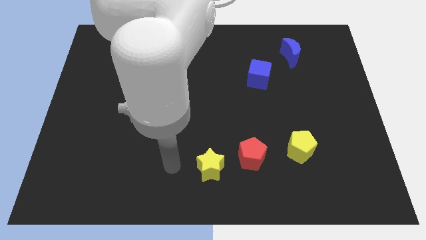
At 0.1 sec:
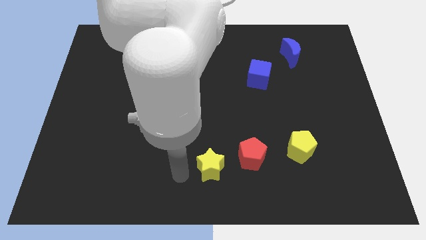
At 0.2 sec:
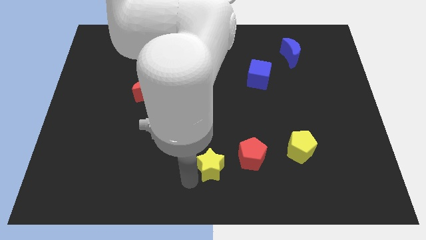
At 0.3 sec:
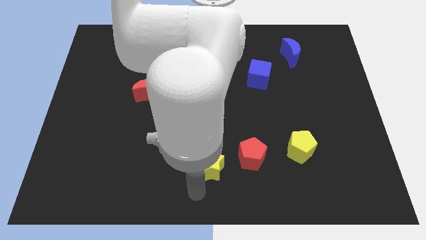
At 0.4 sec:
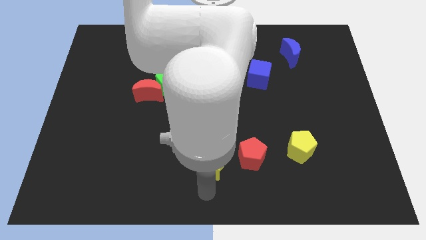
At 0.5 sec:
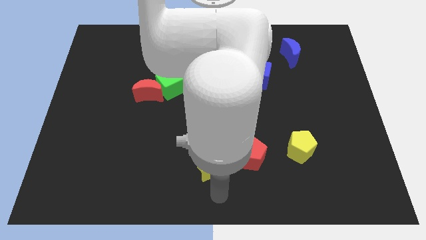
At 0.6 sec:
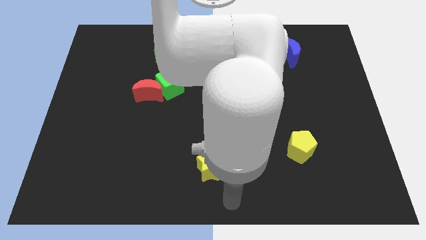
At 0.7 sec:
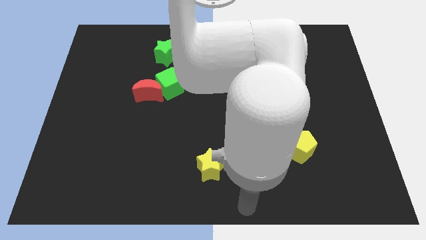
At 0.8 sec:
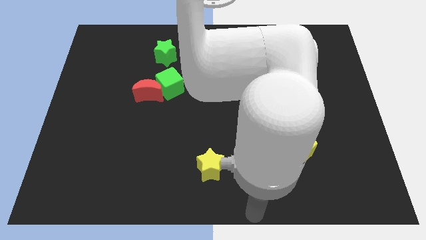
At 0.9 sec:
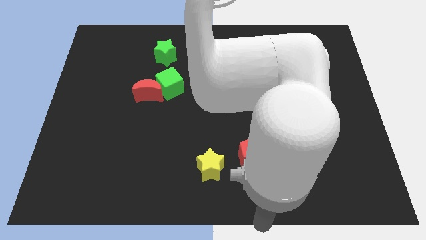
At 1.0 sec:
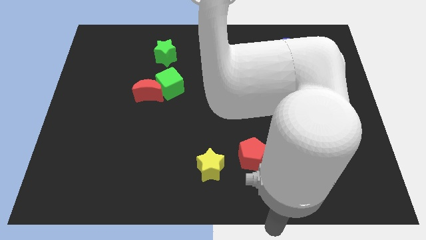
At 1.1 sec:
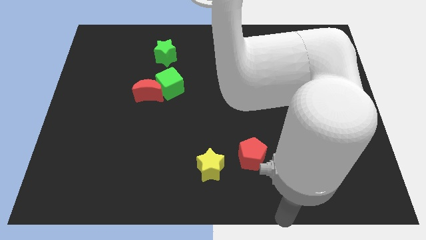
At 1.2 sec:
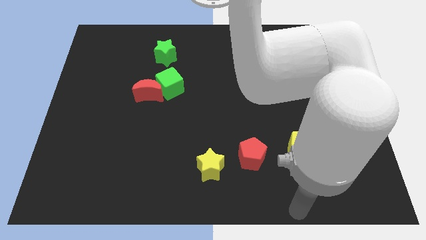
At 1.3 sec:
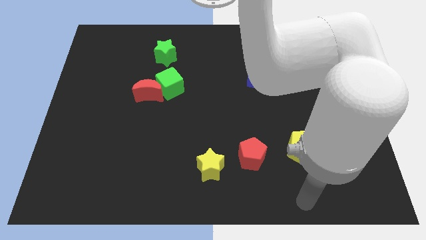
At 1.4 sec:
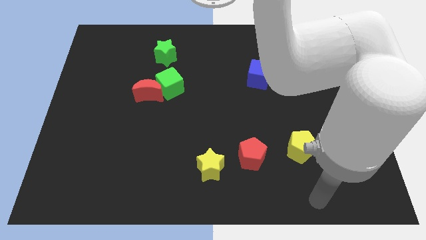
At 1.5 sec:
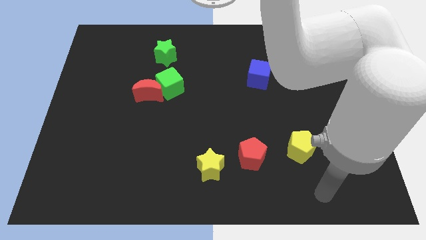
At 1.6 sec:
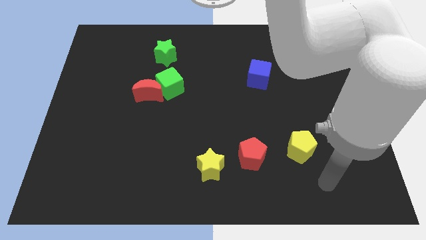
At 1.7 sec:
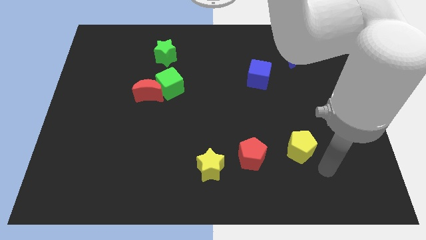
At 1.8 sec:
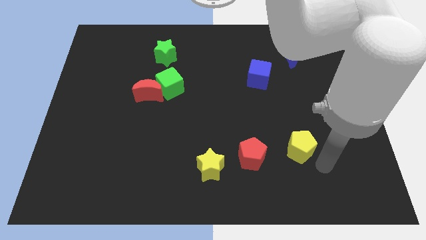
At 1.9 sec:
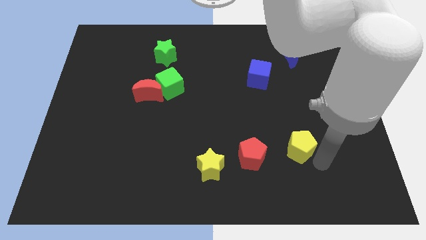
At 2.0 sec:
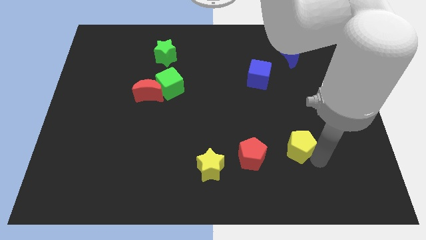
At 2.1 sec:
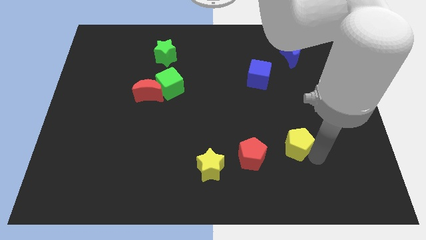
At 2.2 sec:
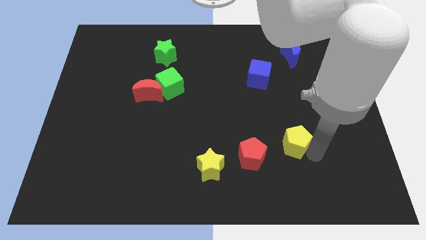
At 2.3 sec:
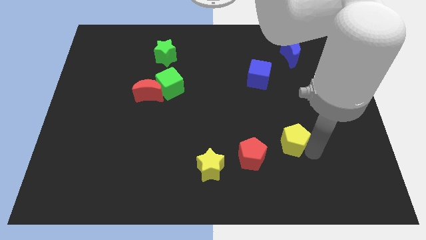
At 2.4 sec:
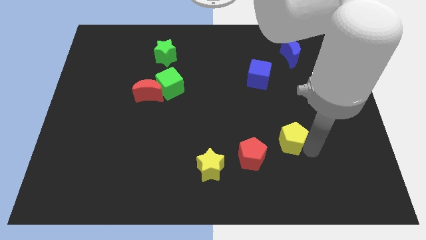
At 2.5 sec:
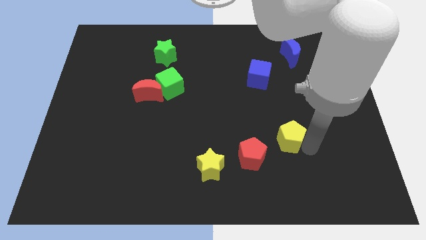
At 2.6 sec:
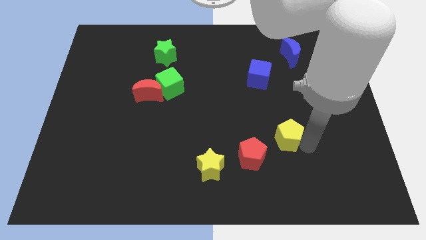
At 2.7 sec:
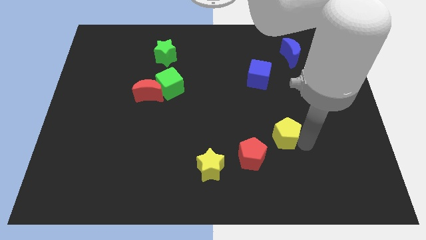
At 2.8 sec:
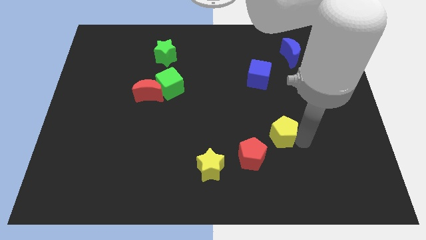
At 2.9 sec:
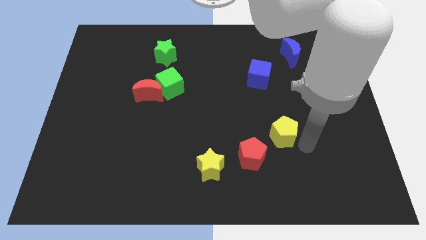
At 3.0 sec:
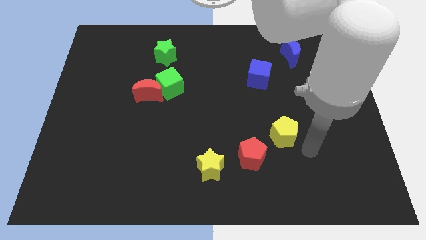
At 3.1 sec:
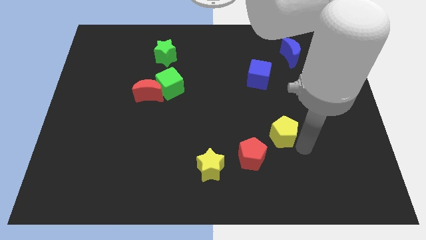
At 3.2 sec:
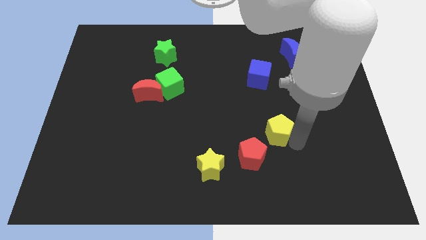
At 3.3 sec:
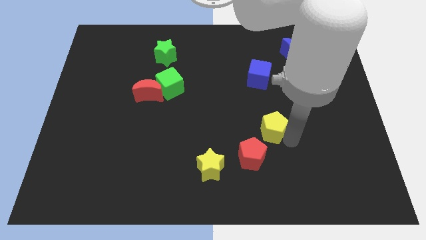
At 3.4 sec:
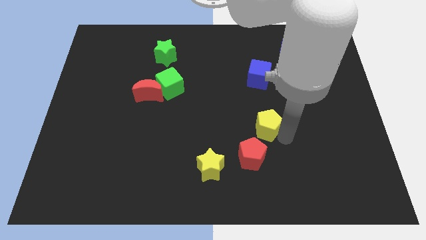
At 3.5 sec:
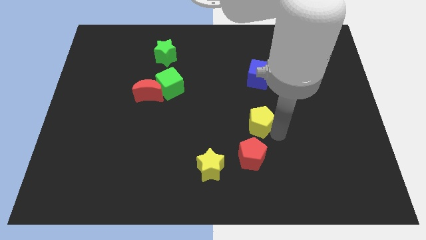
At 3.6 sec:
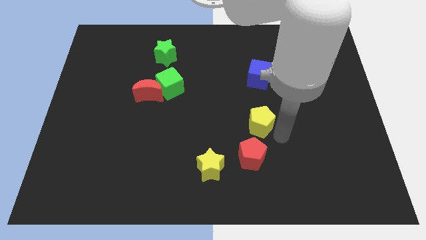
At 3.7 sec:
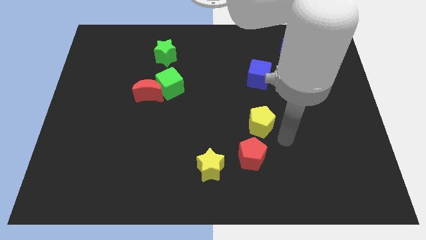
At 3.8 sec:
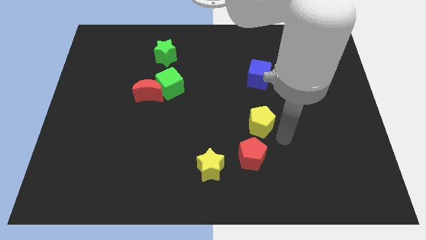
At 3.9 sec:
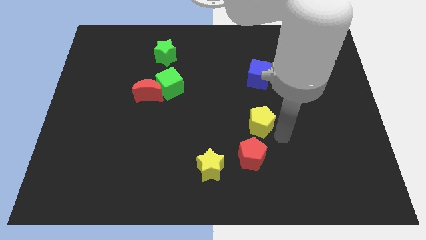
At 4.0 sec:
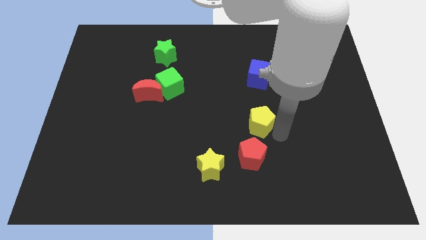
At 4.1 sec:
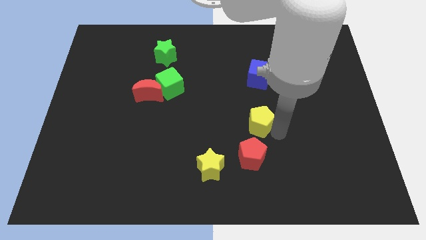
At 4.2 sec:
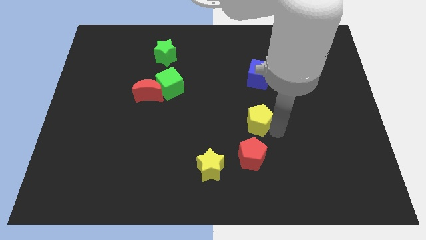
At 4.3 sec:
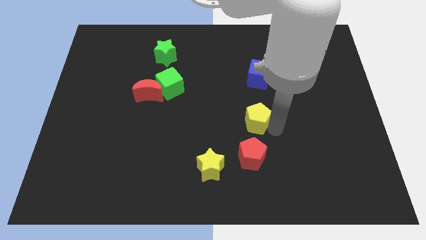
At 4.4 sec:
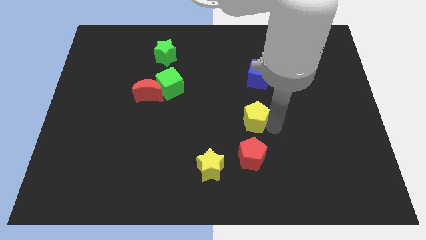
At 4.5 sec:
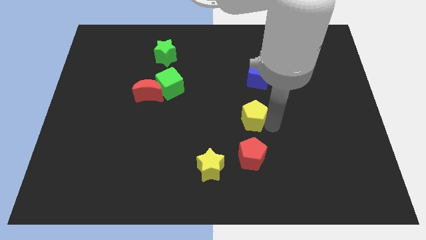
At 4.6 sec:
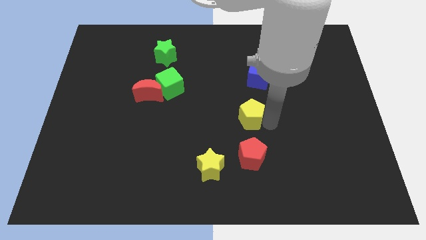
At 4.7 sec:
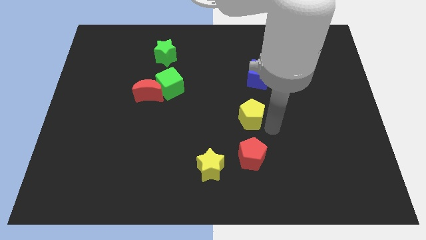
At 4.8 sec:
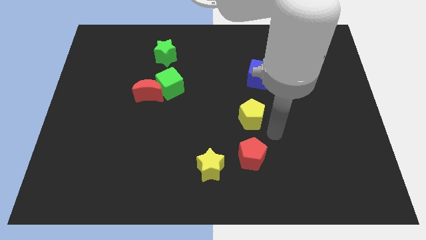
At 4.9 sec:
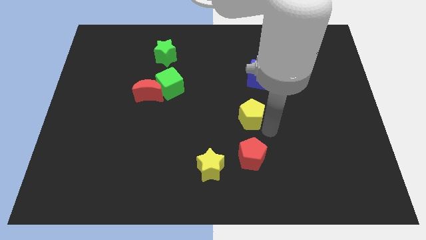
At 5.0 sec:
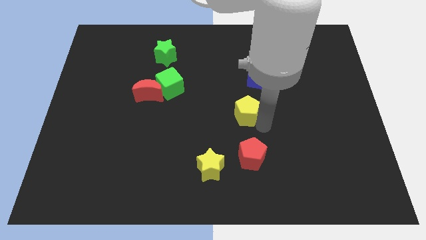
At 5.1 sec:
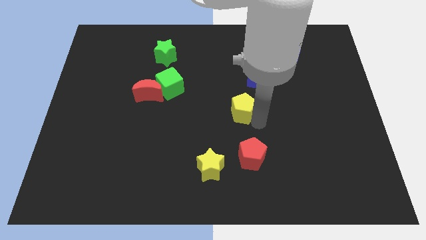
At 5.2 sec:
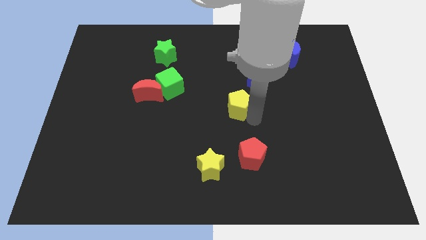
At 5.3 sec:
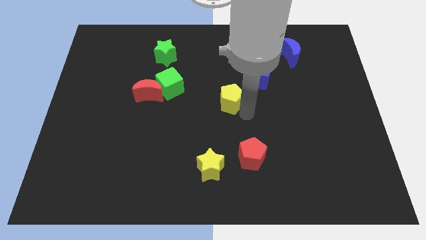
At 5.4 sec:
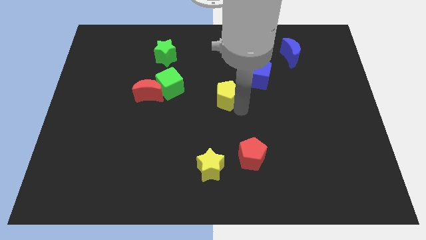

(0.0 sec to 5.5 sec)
push the yellow pentagon to the right side of the green cube

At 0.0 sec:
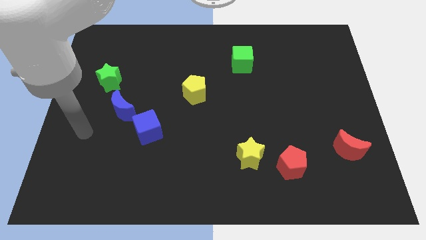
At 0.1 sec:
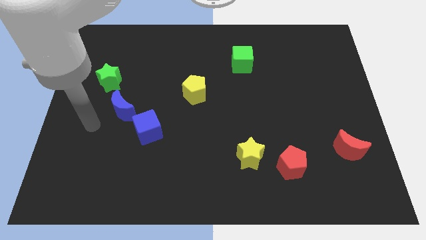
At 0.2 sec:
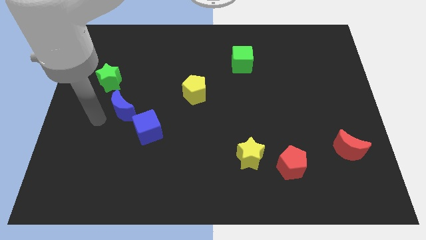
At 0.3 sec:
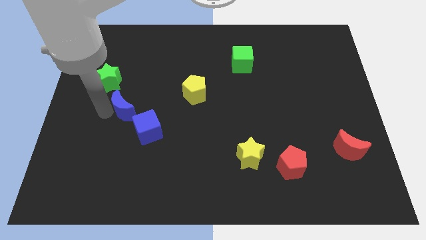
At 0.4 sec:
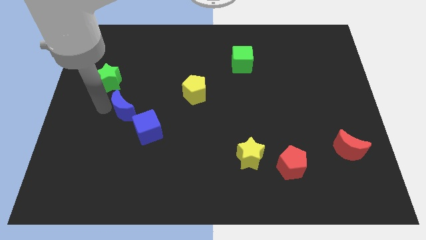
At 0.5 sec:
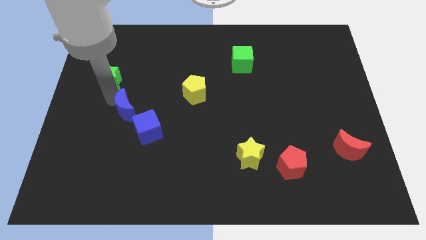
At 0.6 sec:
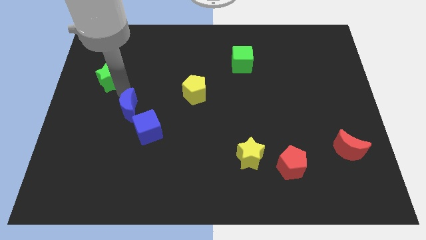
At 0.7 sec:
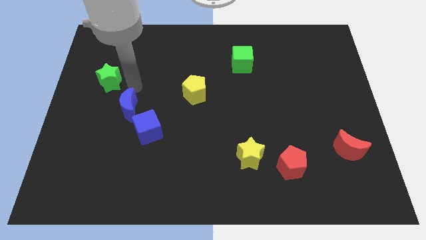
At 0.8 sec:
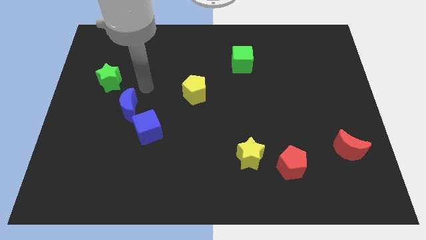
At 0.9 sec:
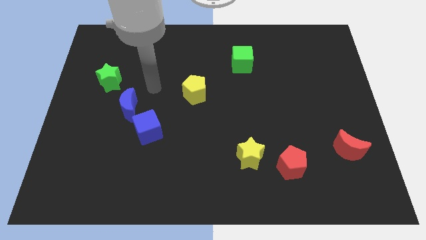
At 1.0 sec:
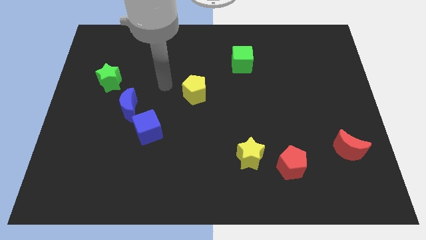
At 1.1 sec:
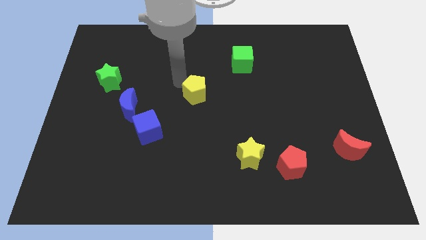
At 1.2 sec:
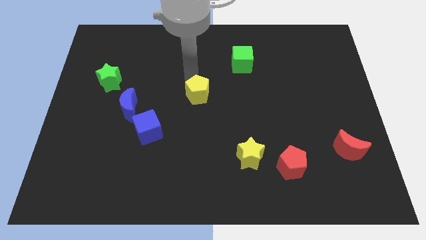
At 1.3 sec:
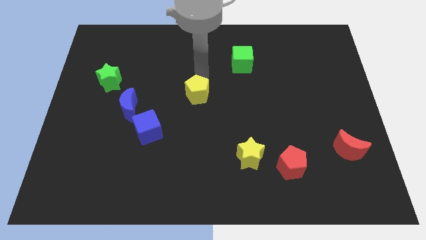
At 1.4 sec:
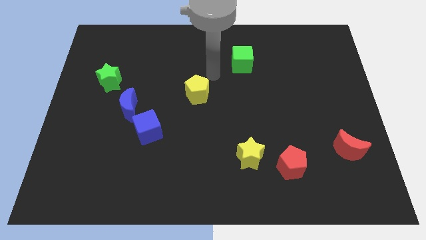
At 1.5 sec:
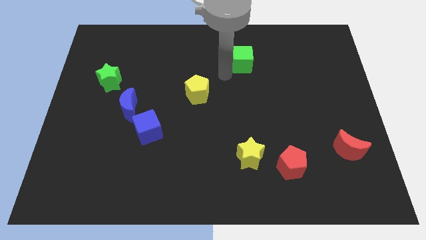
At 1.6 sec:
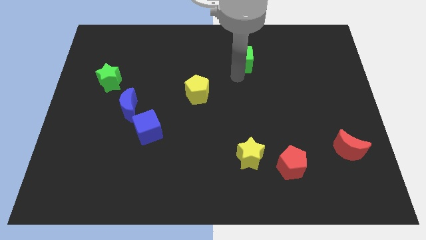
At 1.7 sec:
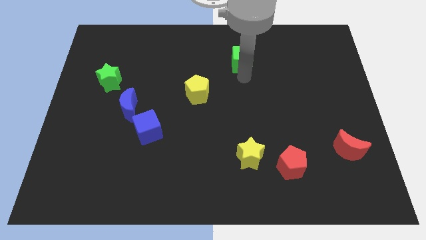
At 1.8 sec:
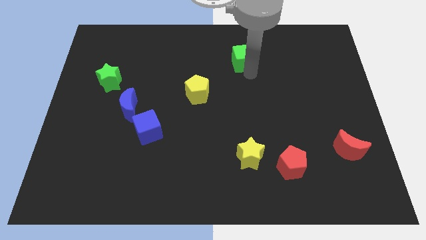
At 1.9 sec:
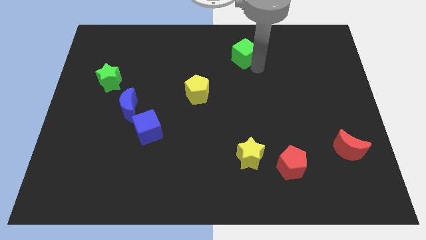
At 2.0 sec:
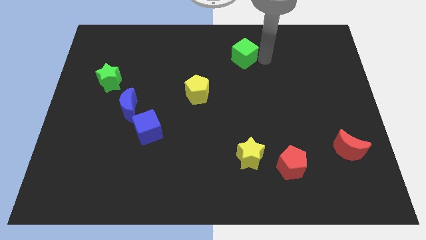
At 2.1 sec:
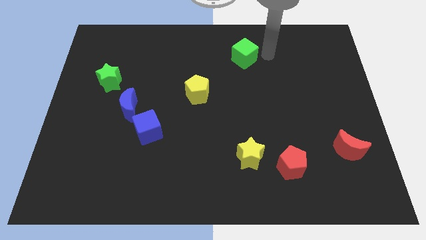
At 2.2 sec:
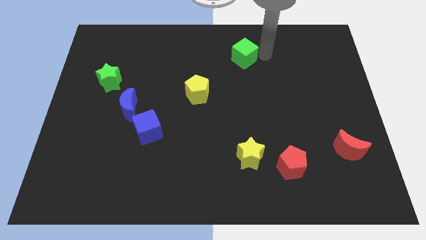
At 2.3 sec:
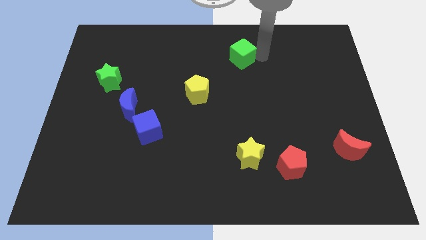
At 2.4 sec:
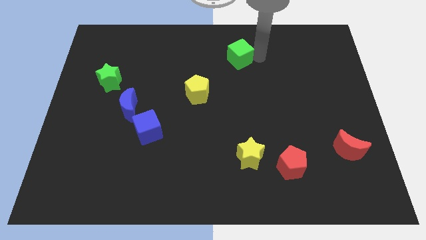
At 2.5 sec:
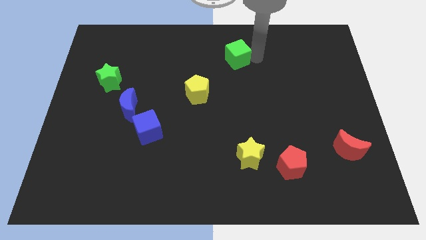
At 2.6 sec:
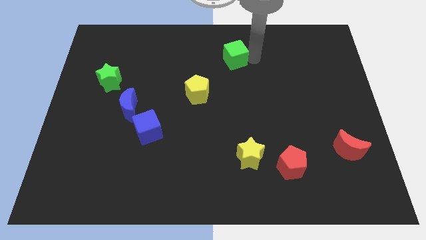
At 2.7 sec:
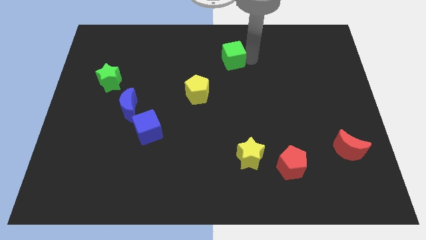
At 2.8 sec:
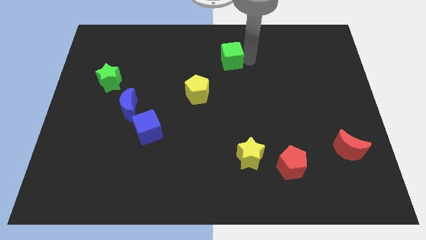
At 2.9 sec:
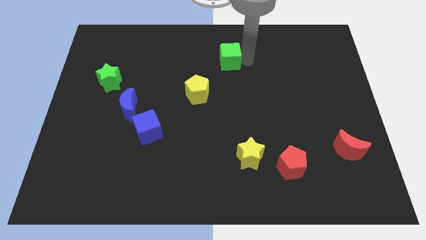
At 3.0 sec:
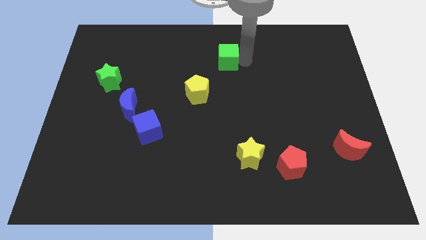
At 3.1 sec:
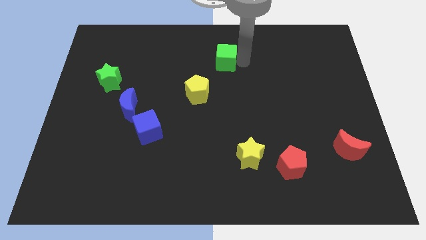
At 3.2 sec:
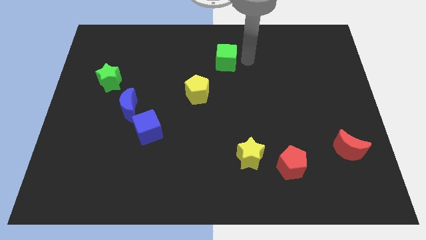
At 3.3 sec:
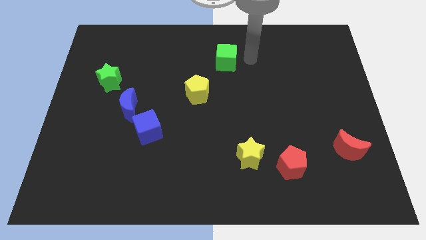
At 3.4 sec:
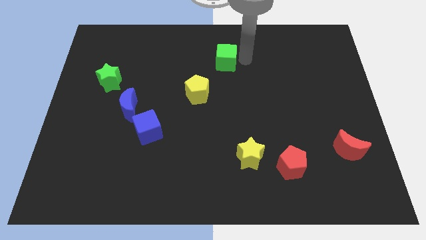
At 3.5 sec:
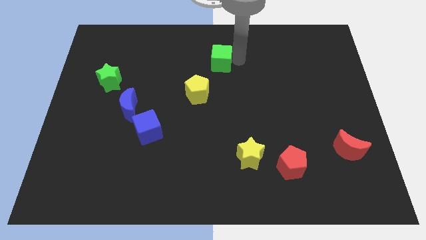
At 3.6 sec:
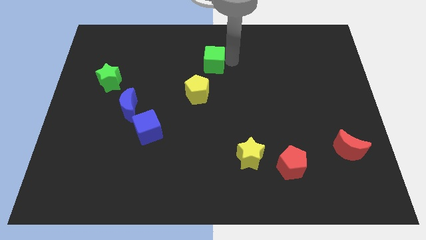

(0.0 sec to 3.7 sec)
slide the green cube to the top side of the yellow pentagon
